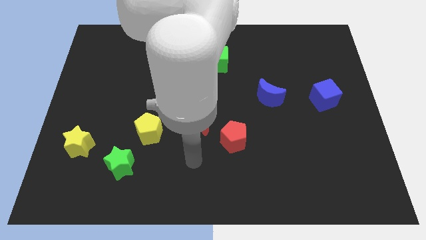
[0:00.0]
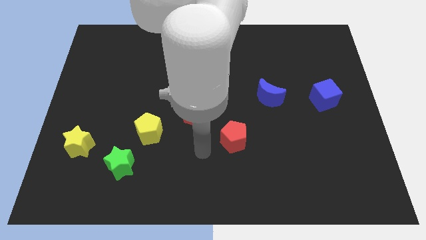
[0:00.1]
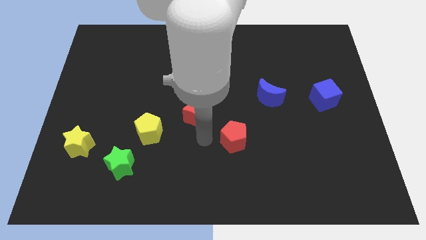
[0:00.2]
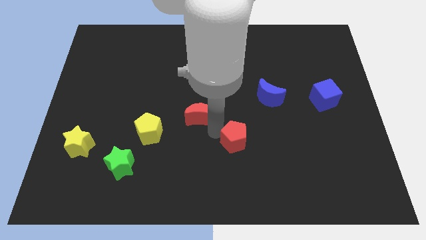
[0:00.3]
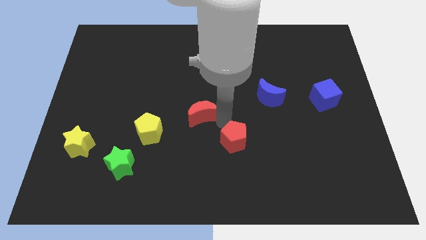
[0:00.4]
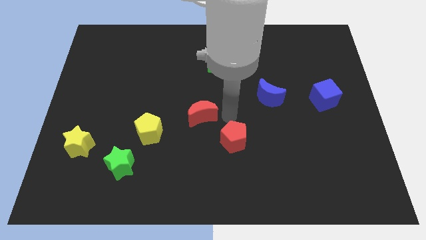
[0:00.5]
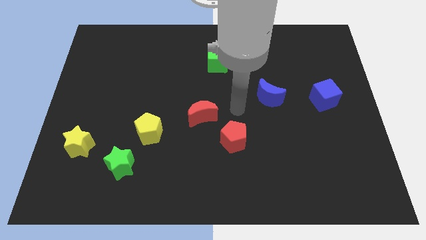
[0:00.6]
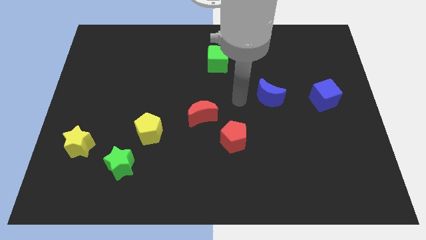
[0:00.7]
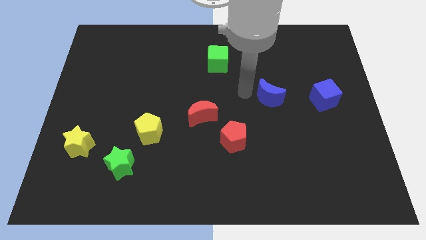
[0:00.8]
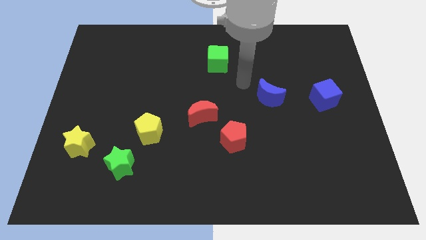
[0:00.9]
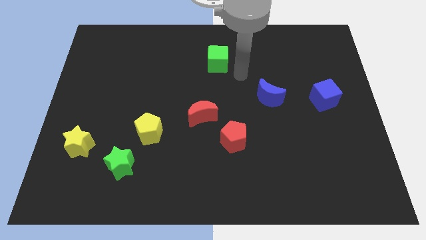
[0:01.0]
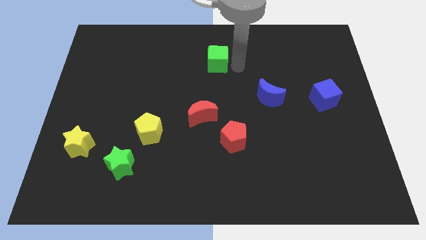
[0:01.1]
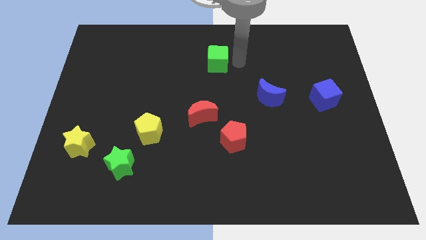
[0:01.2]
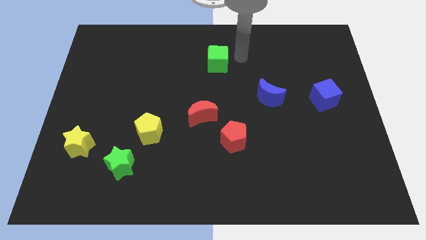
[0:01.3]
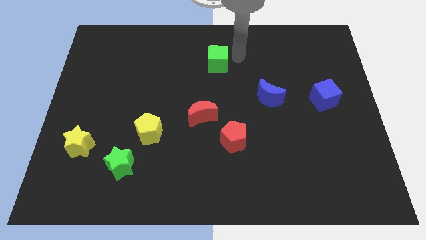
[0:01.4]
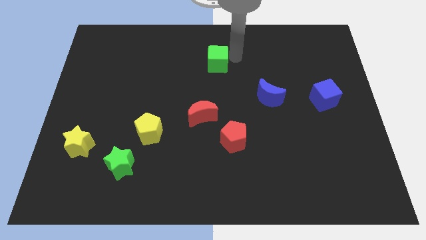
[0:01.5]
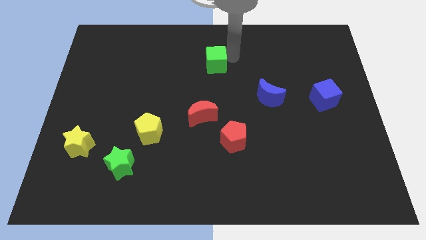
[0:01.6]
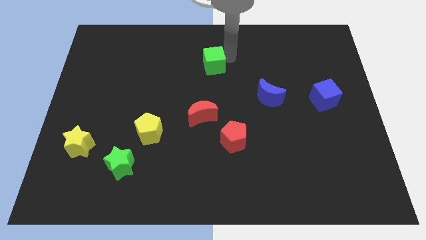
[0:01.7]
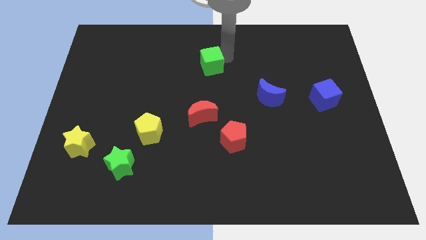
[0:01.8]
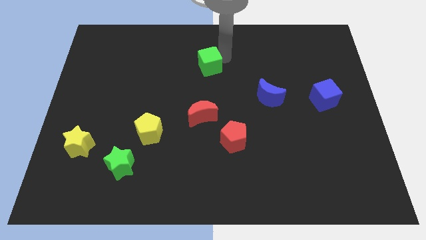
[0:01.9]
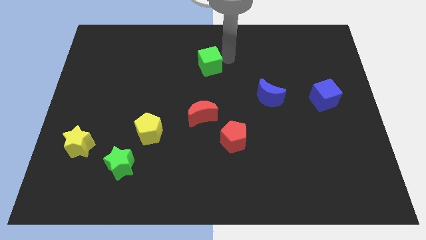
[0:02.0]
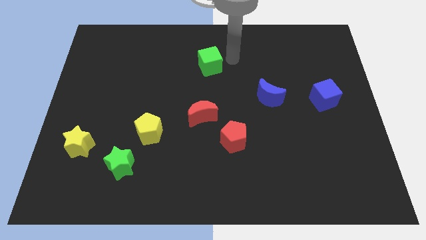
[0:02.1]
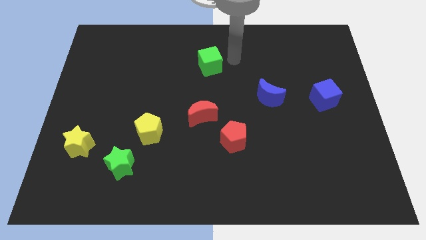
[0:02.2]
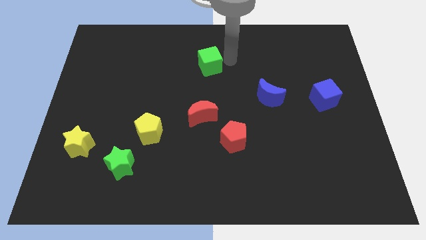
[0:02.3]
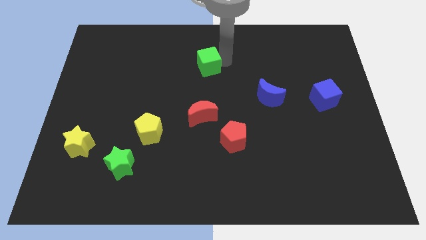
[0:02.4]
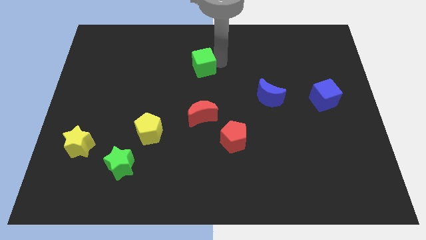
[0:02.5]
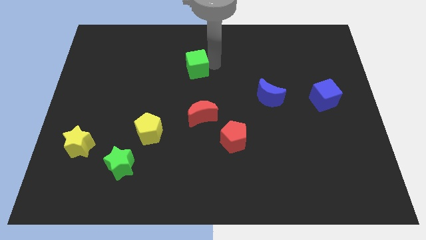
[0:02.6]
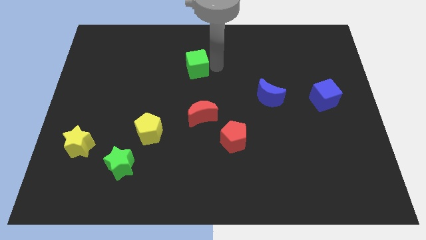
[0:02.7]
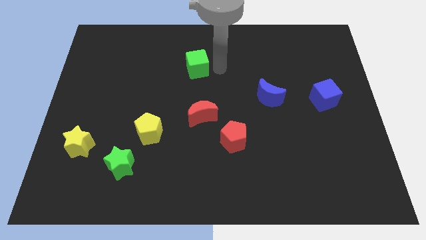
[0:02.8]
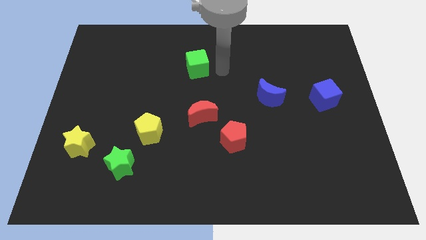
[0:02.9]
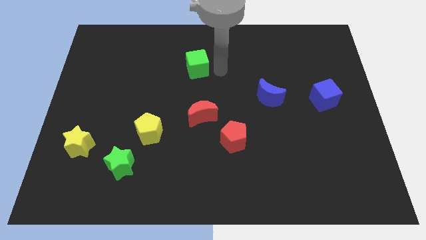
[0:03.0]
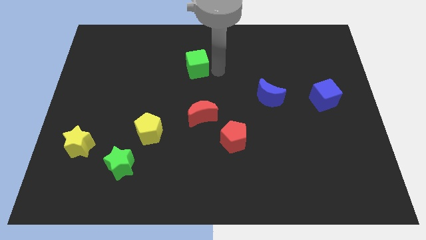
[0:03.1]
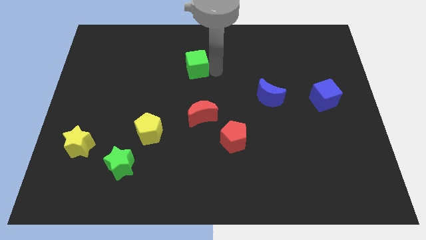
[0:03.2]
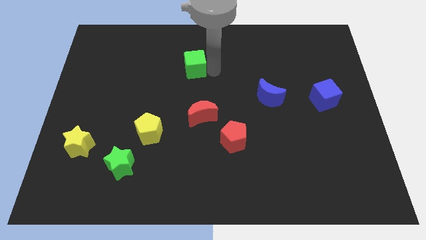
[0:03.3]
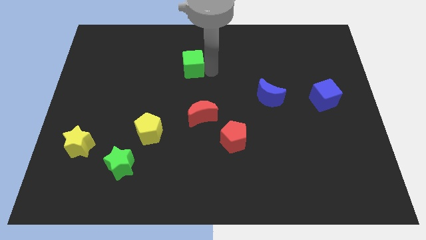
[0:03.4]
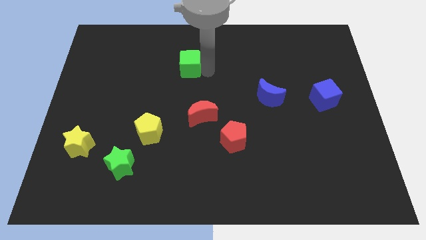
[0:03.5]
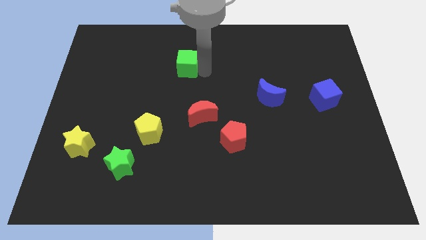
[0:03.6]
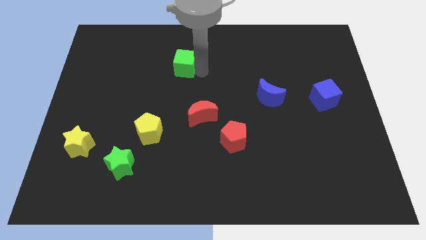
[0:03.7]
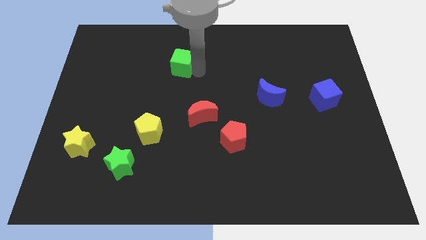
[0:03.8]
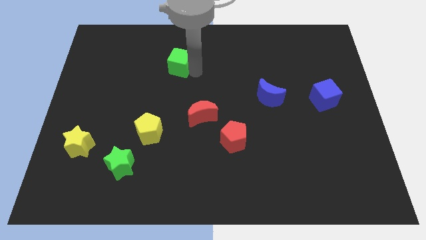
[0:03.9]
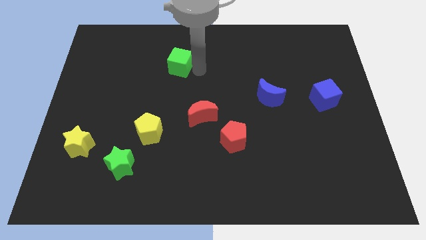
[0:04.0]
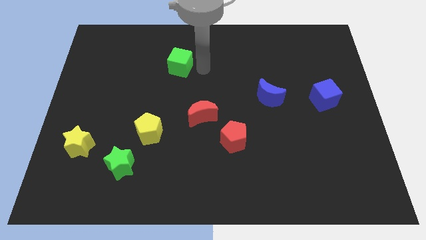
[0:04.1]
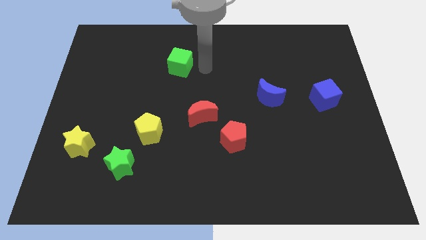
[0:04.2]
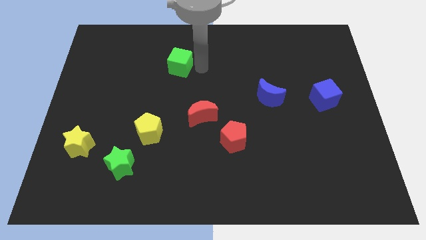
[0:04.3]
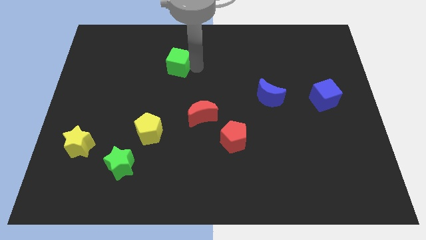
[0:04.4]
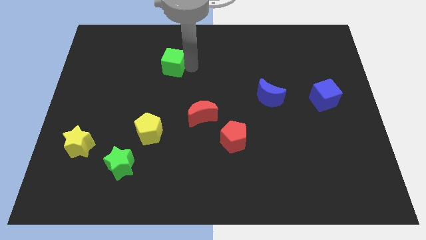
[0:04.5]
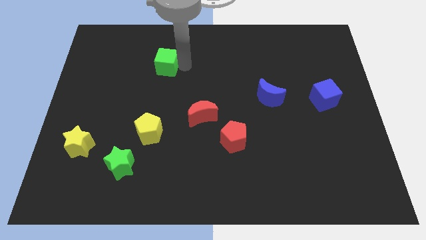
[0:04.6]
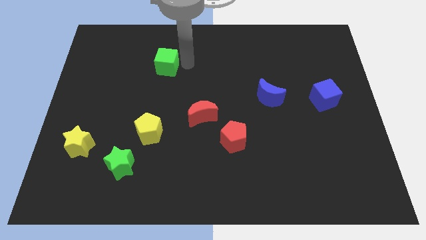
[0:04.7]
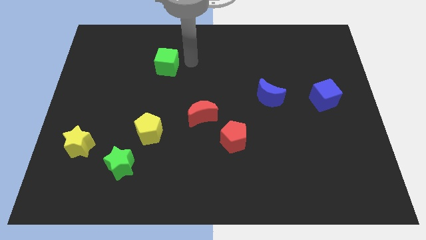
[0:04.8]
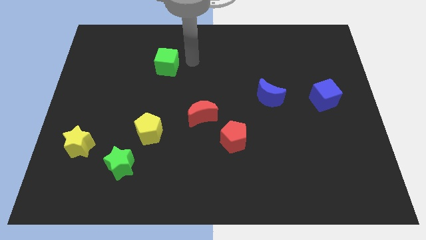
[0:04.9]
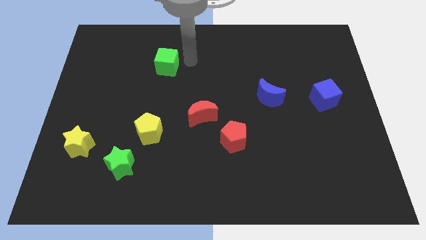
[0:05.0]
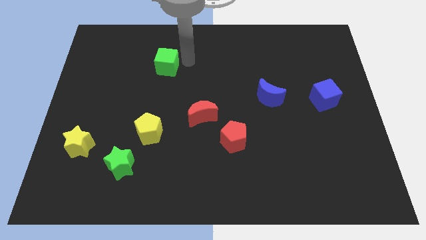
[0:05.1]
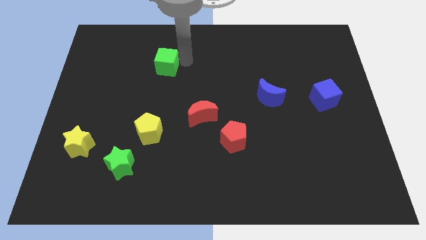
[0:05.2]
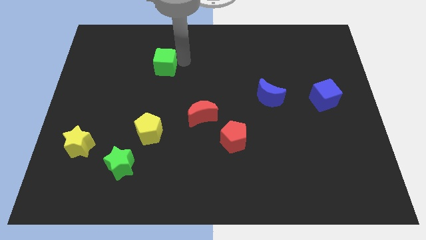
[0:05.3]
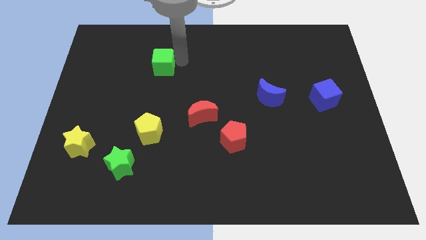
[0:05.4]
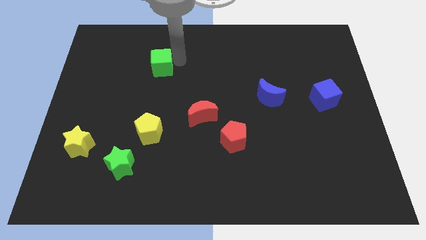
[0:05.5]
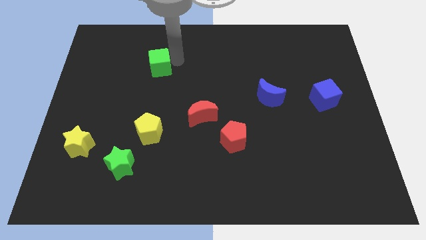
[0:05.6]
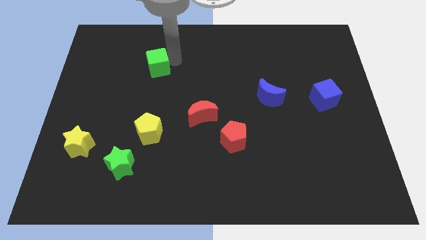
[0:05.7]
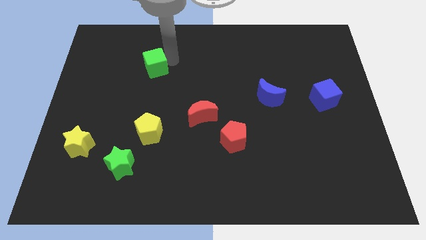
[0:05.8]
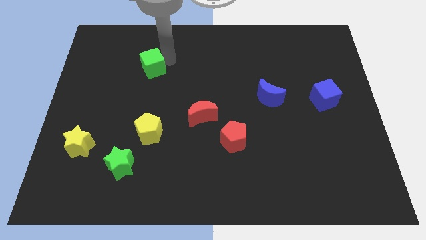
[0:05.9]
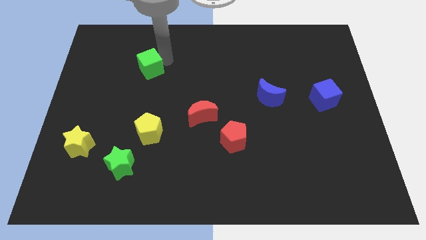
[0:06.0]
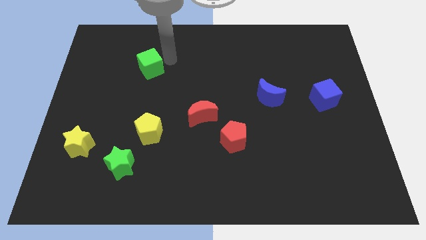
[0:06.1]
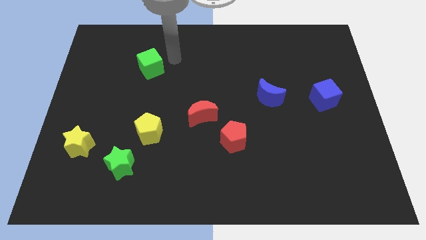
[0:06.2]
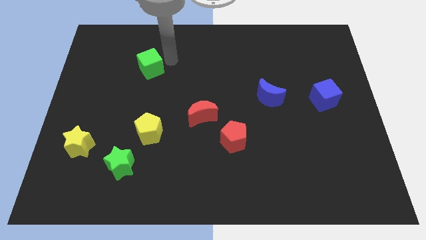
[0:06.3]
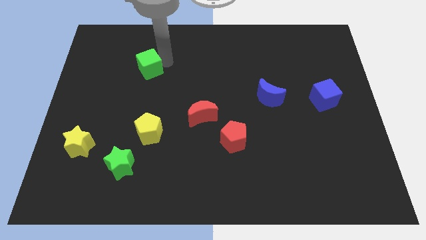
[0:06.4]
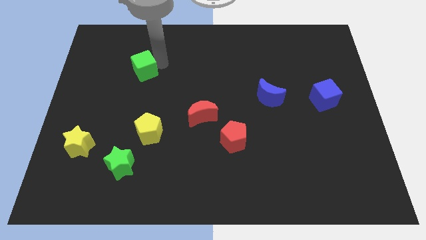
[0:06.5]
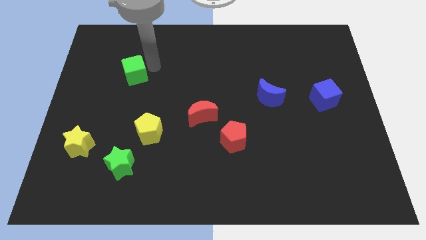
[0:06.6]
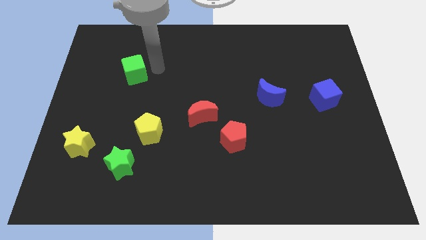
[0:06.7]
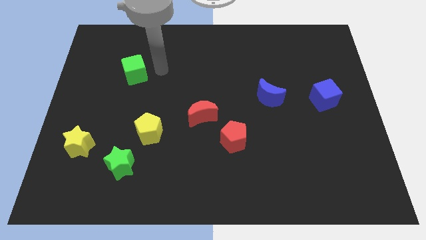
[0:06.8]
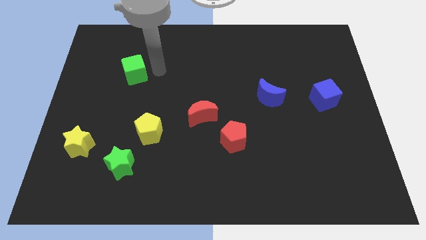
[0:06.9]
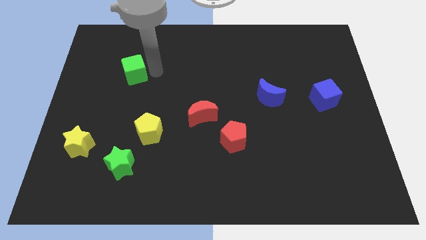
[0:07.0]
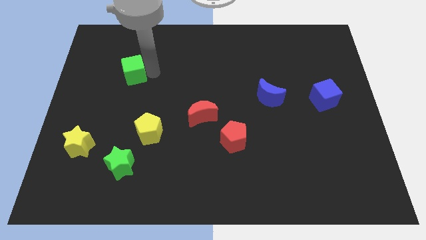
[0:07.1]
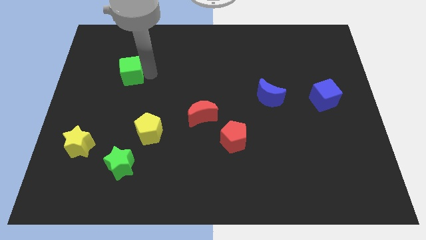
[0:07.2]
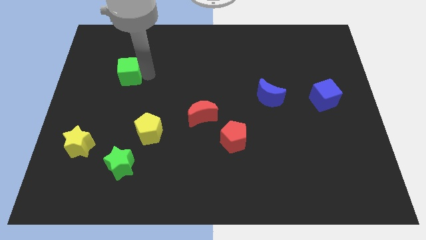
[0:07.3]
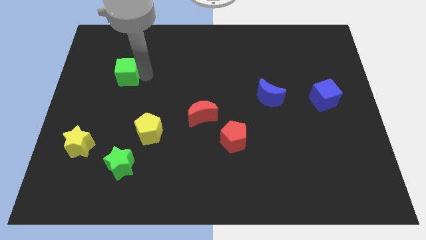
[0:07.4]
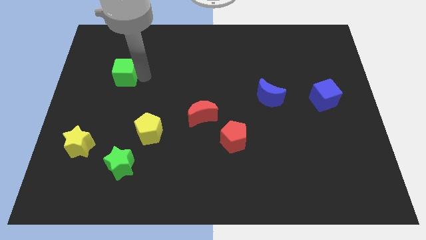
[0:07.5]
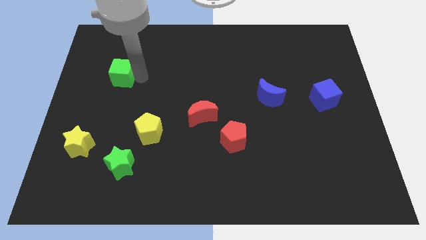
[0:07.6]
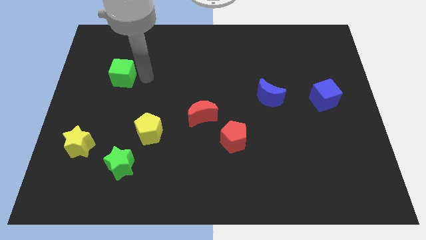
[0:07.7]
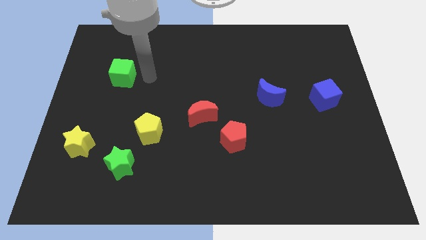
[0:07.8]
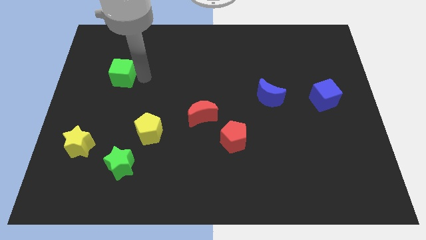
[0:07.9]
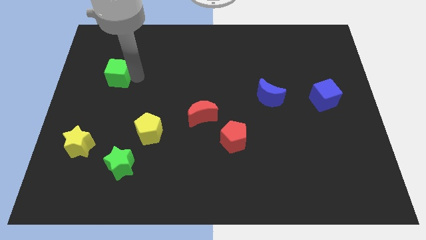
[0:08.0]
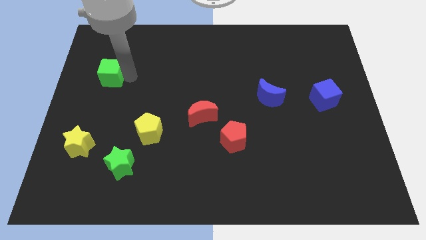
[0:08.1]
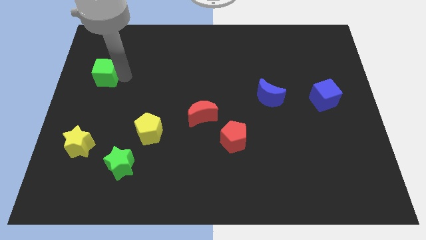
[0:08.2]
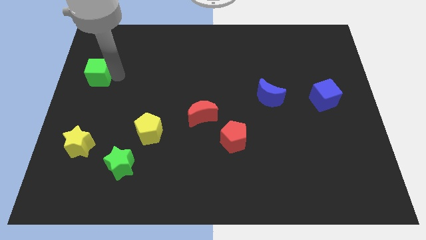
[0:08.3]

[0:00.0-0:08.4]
slide the green cube to the left side of the board
